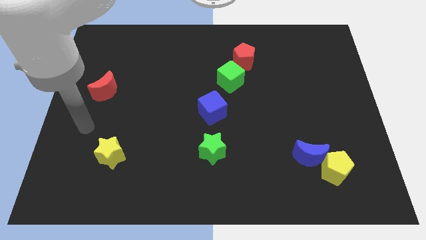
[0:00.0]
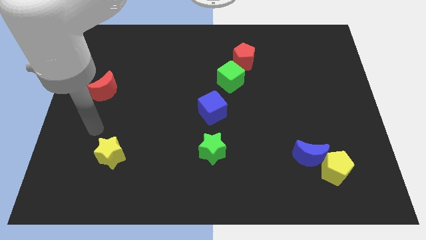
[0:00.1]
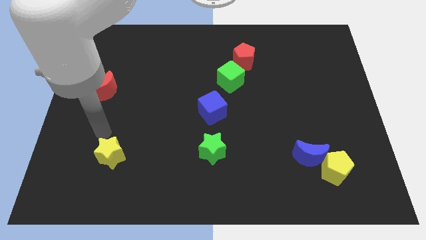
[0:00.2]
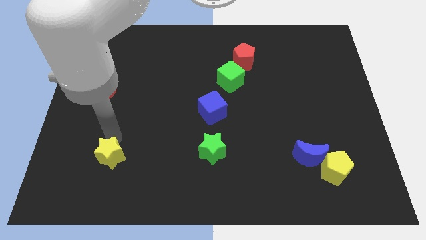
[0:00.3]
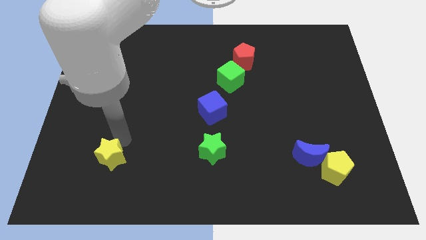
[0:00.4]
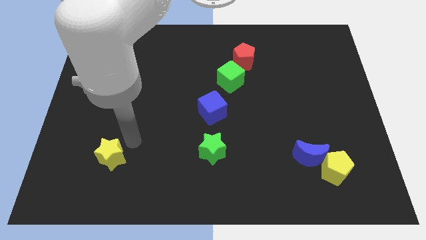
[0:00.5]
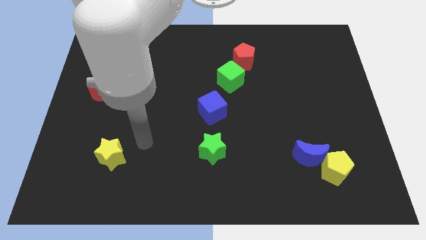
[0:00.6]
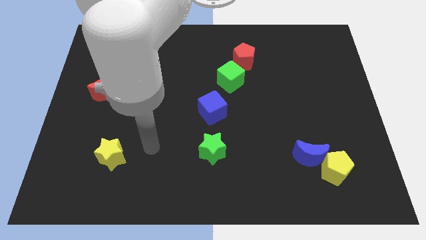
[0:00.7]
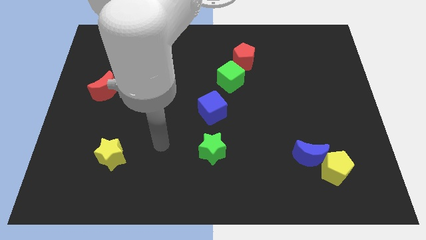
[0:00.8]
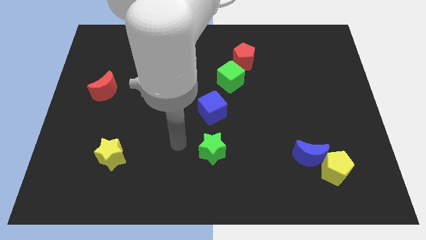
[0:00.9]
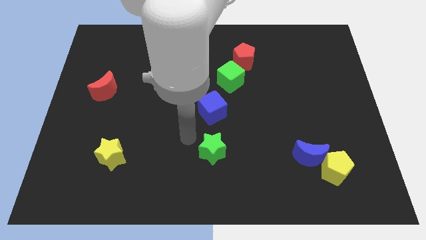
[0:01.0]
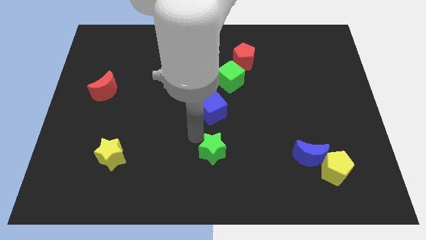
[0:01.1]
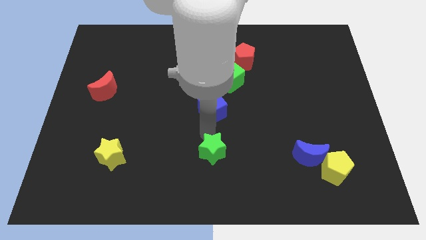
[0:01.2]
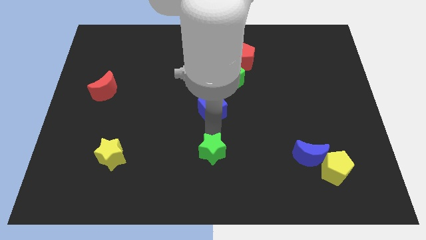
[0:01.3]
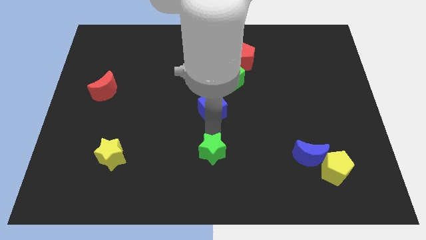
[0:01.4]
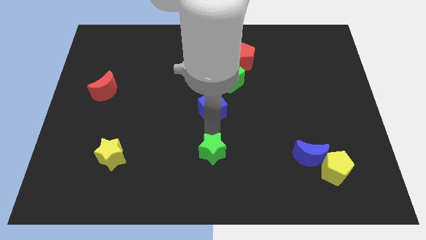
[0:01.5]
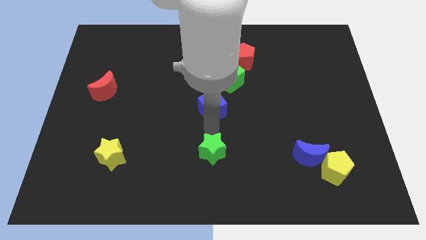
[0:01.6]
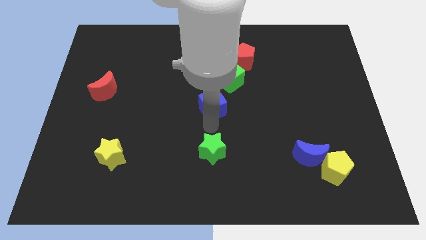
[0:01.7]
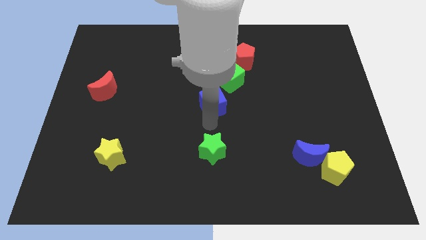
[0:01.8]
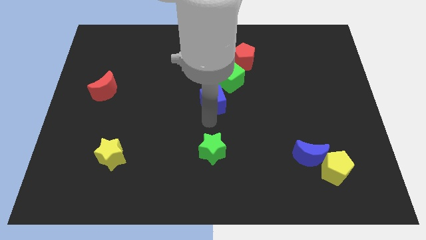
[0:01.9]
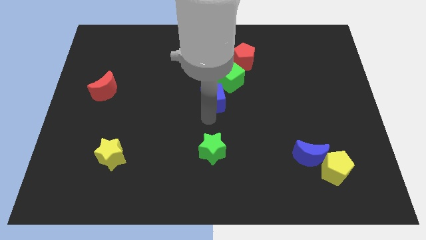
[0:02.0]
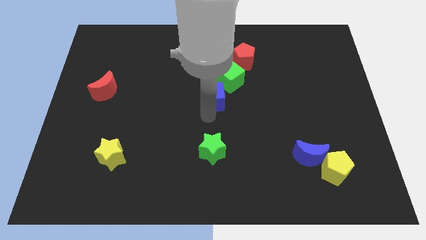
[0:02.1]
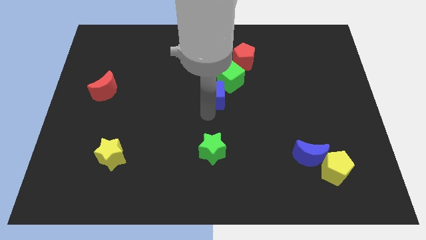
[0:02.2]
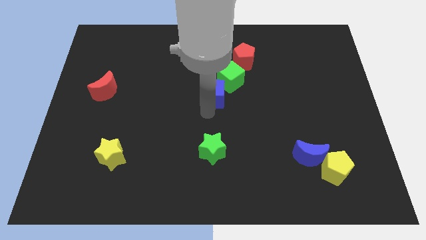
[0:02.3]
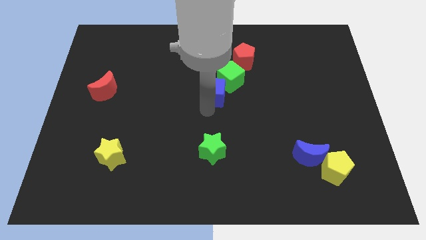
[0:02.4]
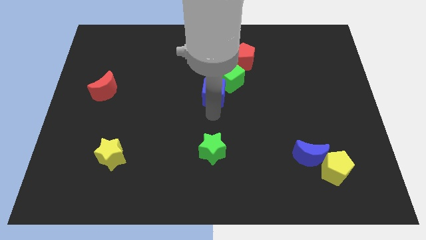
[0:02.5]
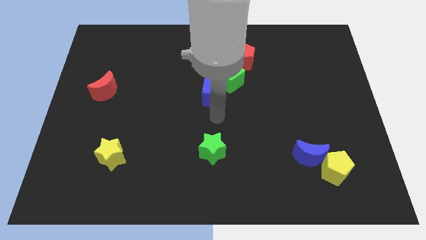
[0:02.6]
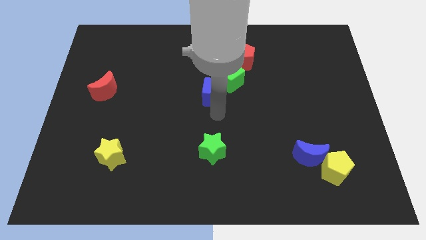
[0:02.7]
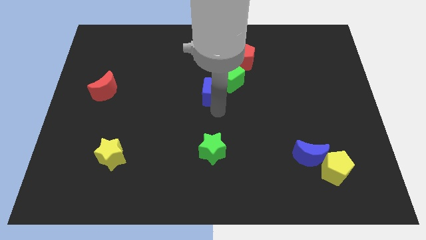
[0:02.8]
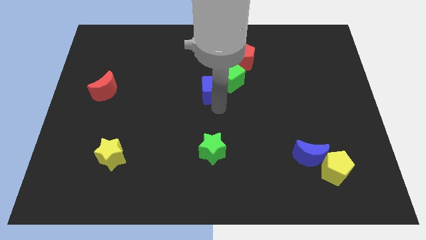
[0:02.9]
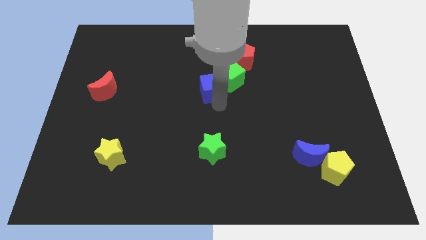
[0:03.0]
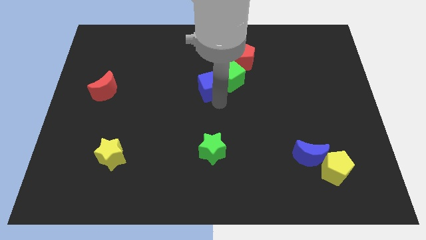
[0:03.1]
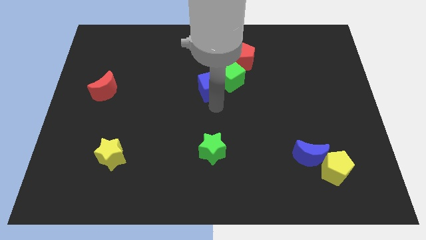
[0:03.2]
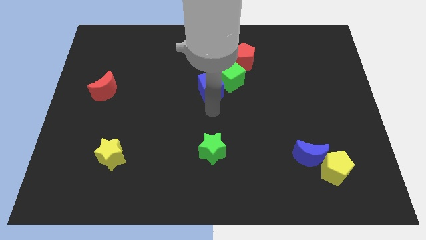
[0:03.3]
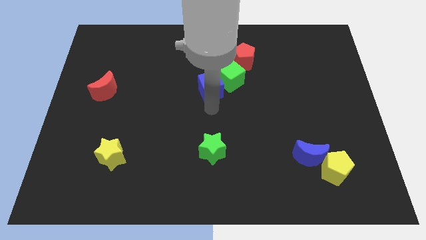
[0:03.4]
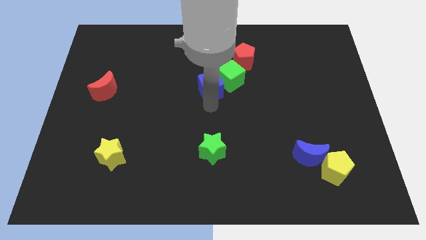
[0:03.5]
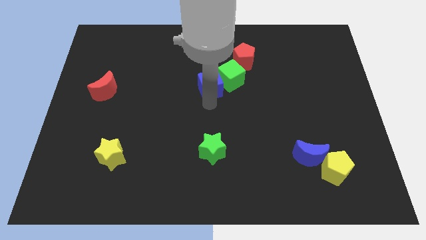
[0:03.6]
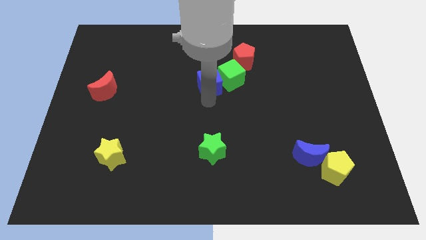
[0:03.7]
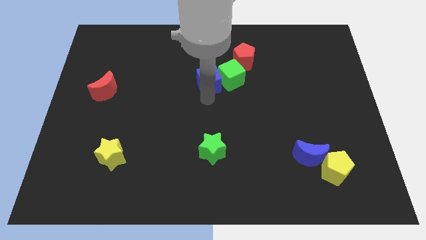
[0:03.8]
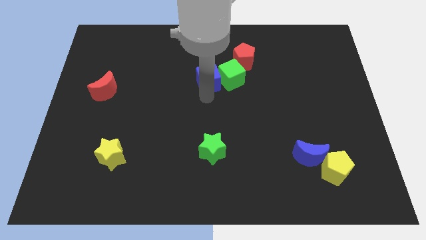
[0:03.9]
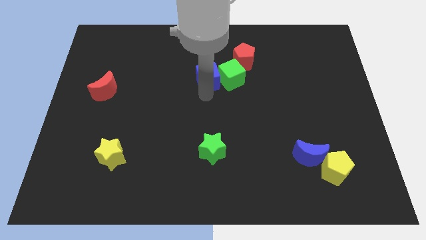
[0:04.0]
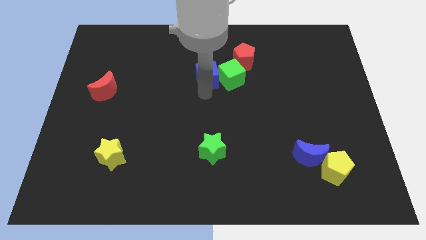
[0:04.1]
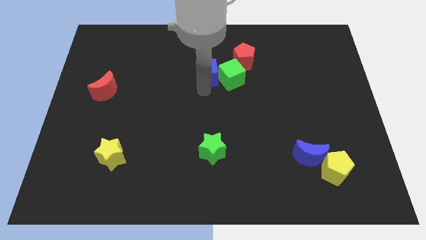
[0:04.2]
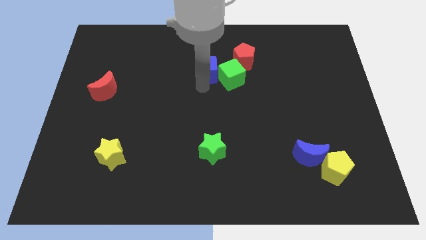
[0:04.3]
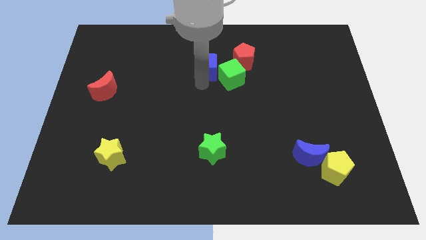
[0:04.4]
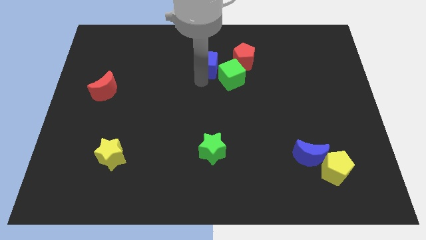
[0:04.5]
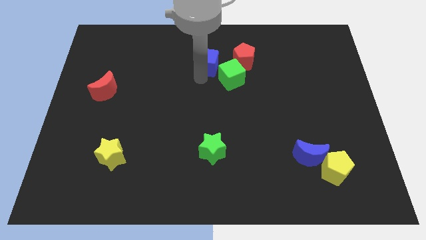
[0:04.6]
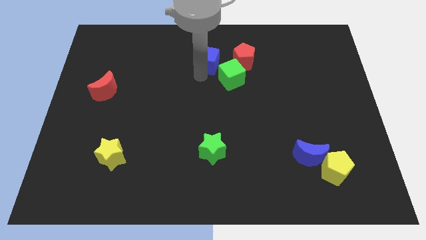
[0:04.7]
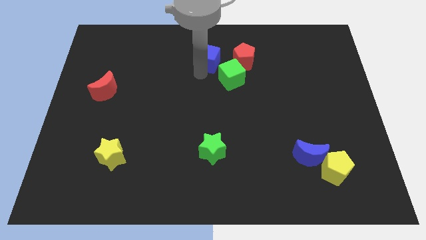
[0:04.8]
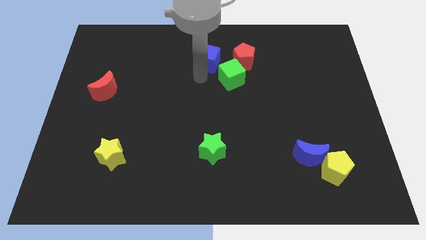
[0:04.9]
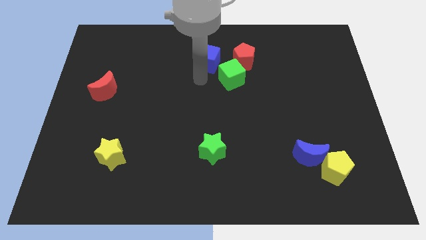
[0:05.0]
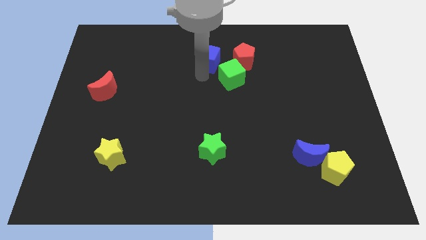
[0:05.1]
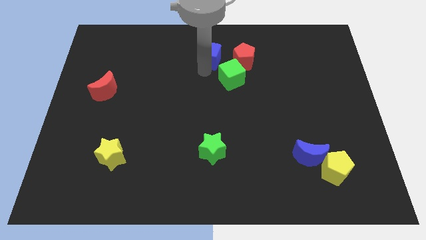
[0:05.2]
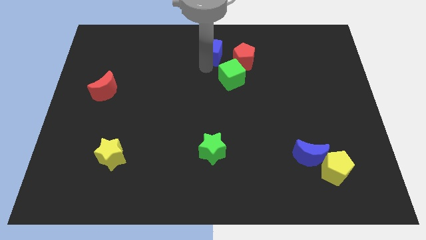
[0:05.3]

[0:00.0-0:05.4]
move the blue cube to the towards your base
